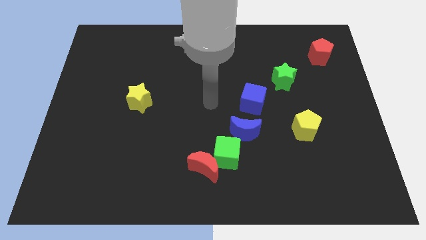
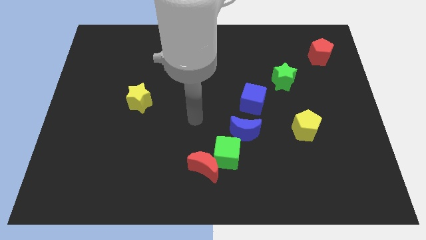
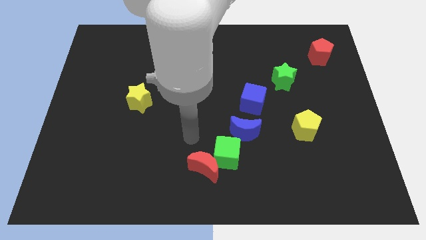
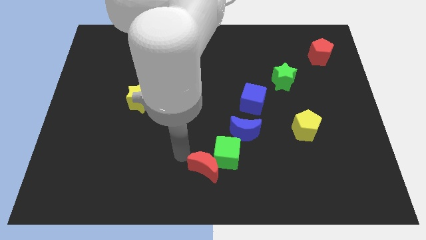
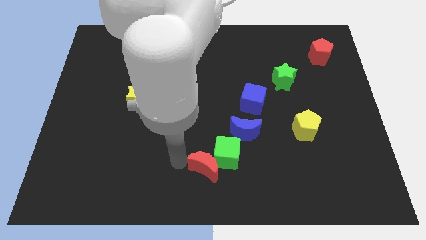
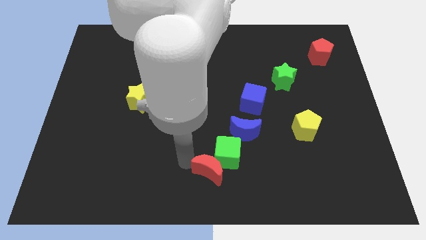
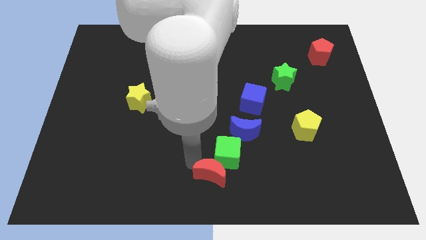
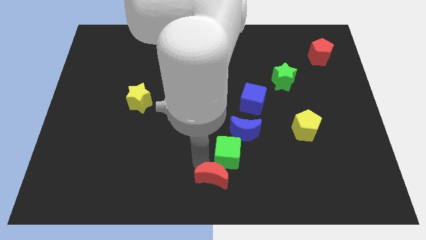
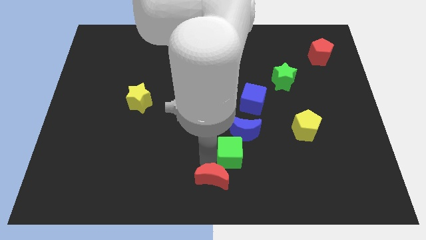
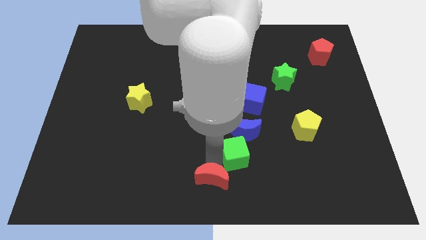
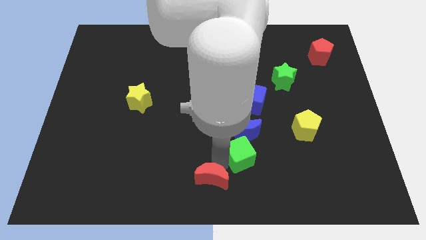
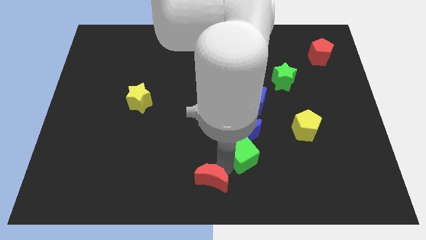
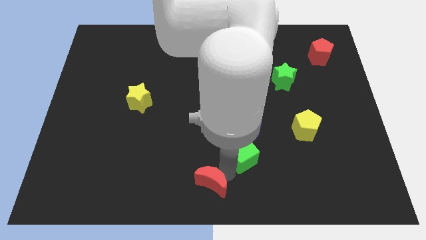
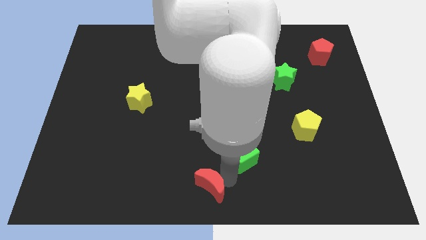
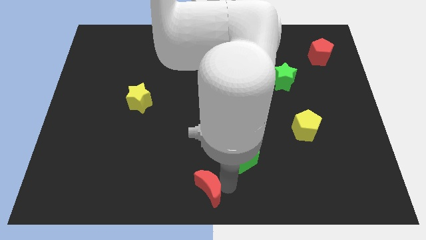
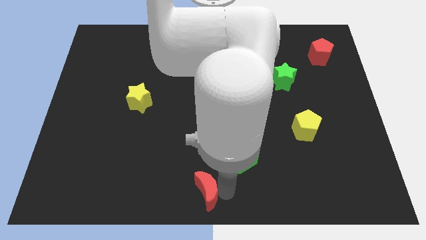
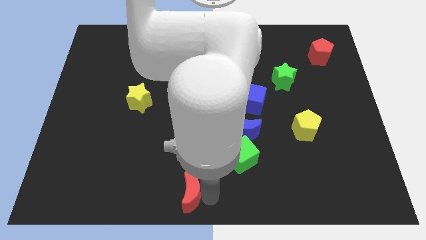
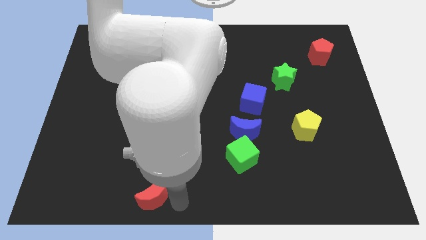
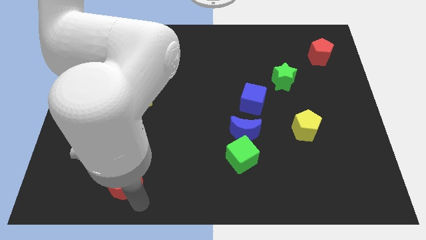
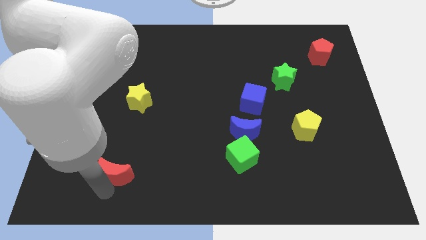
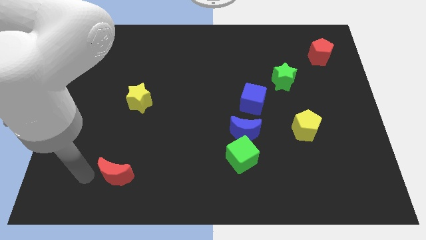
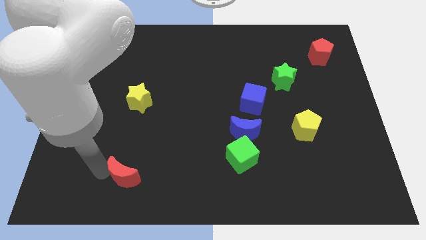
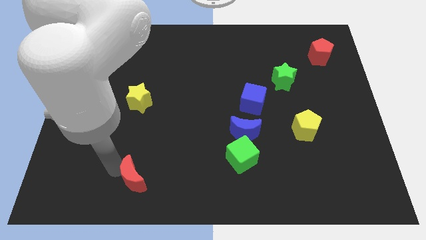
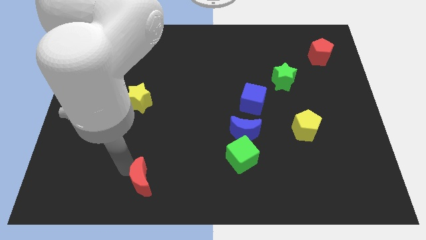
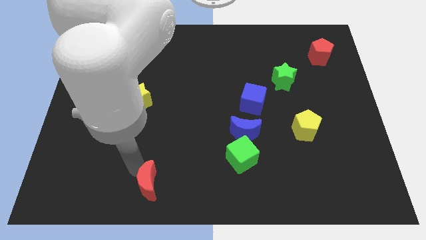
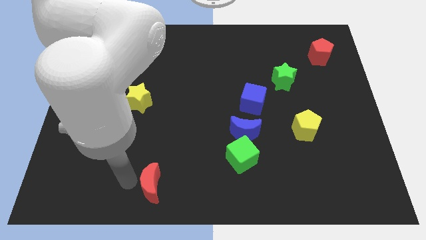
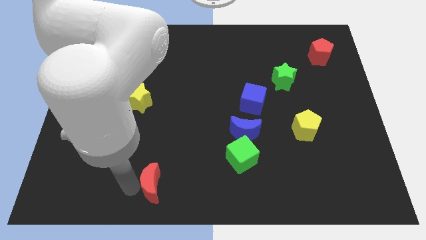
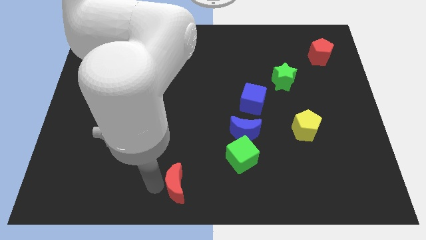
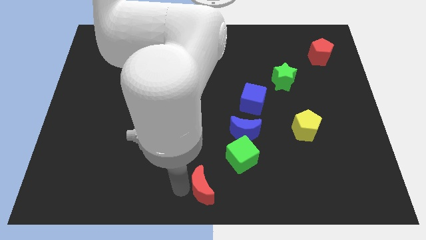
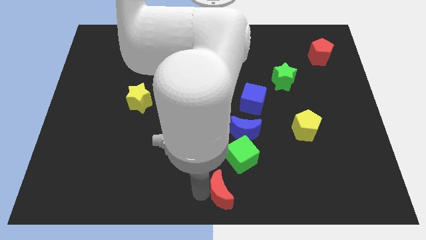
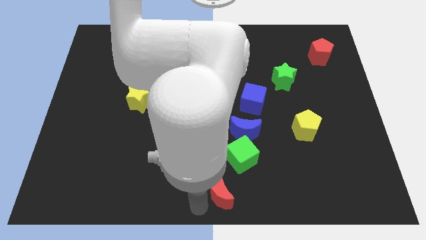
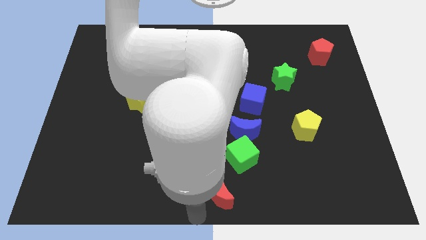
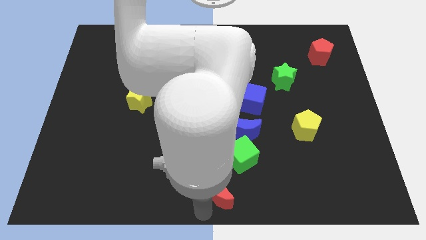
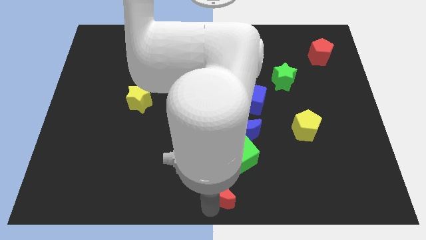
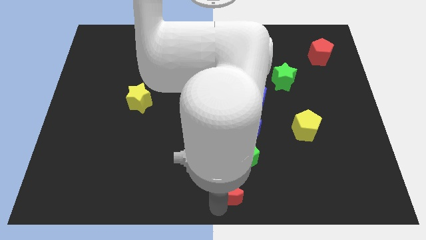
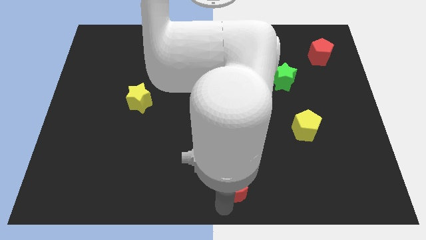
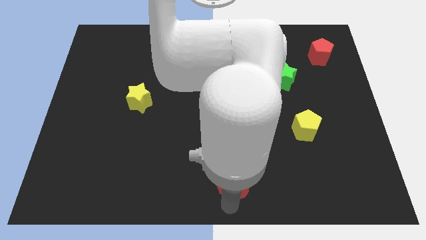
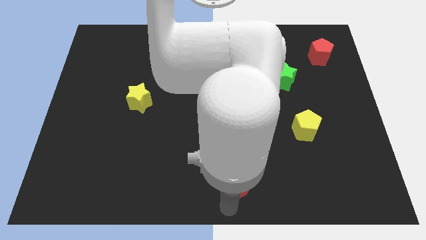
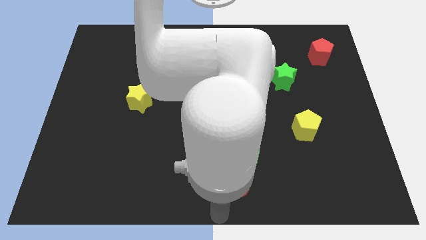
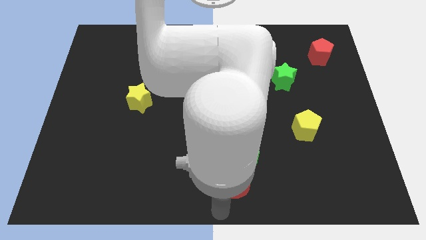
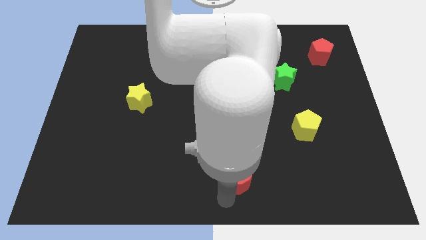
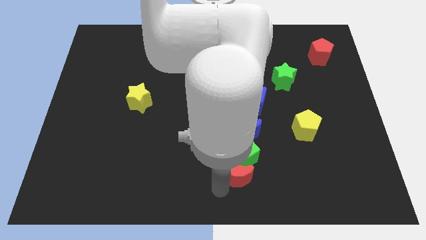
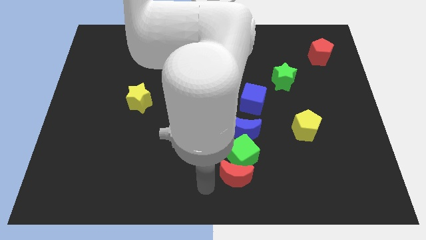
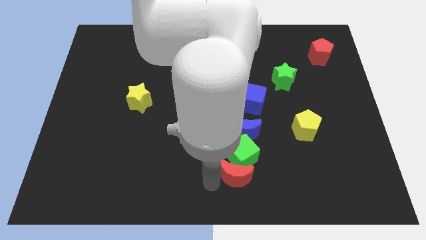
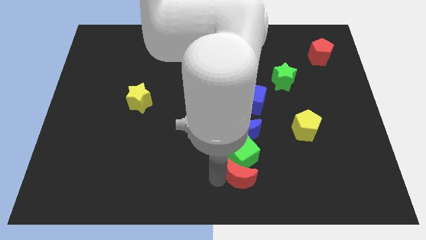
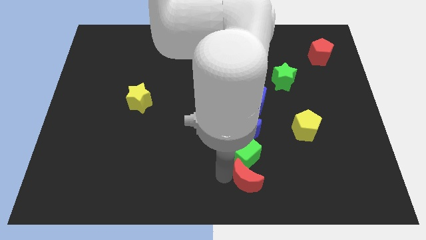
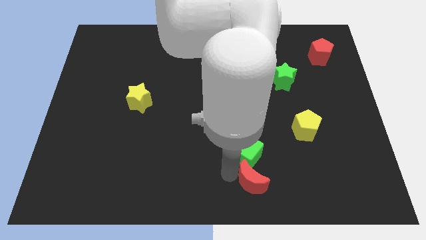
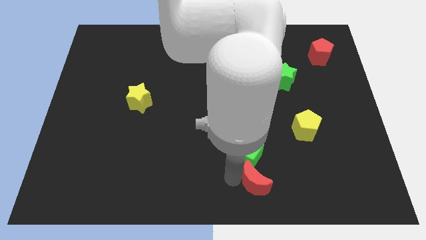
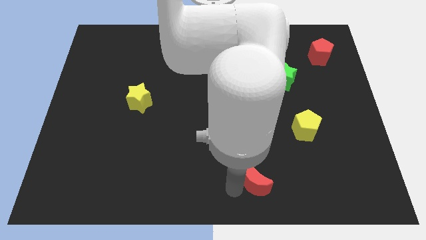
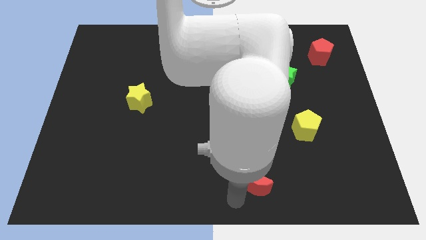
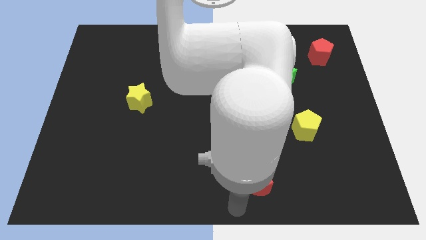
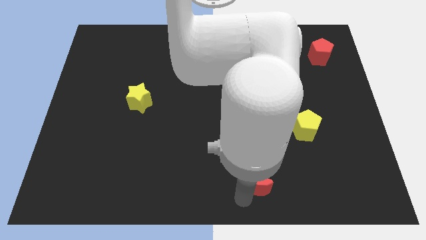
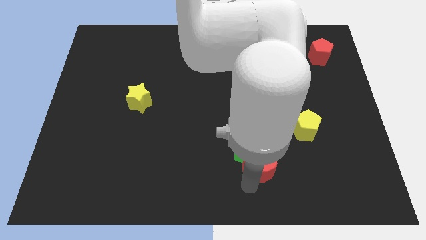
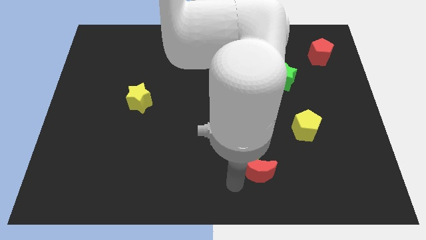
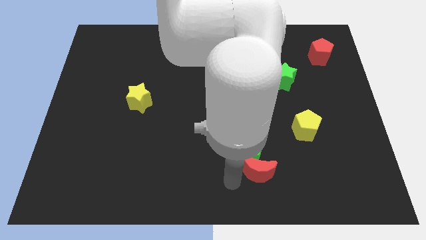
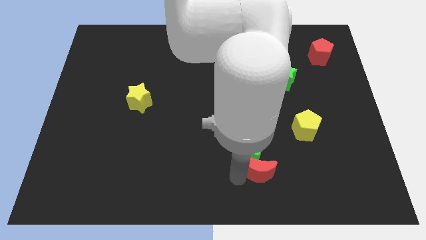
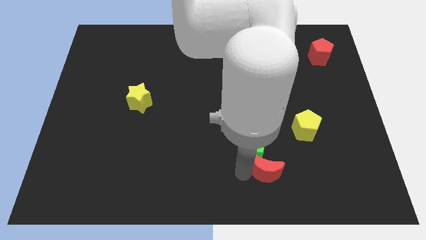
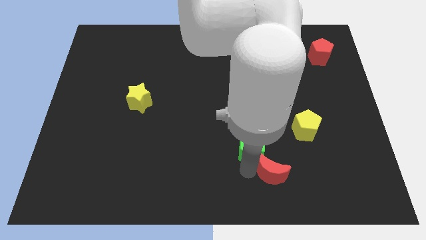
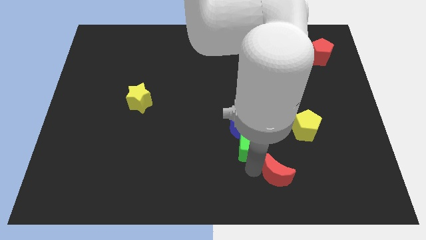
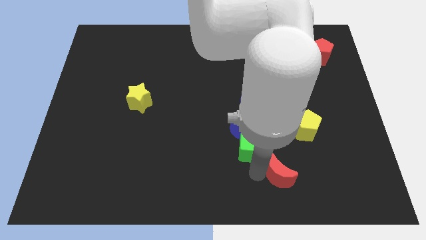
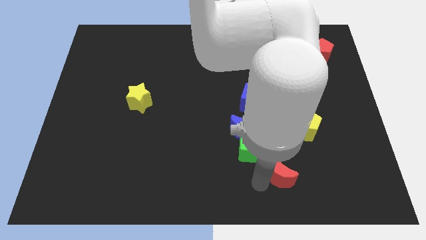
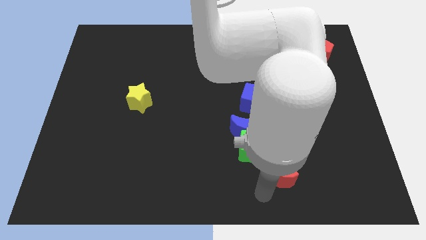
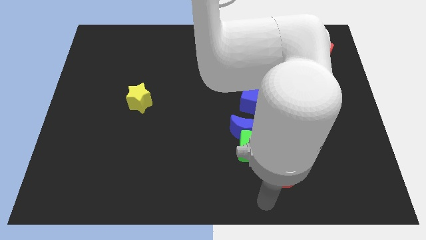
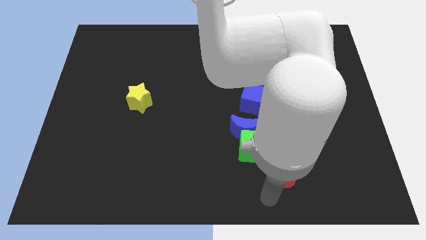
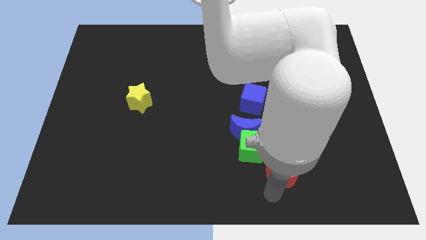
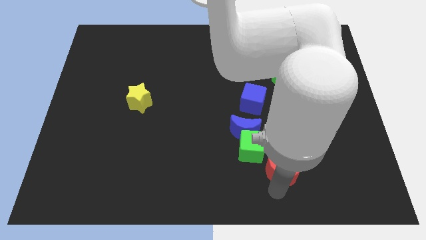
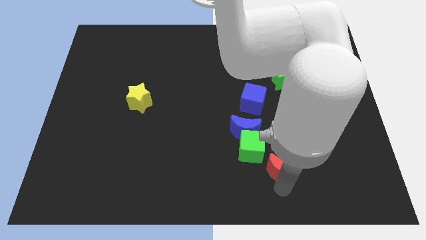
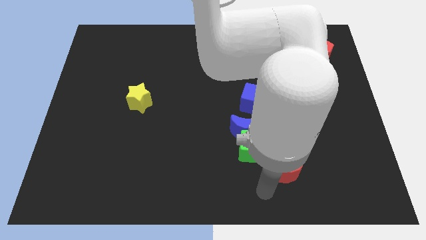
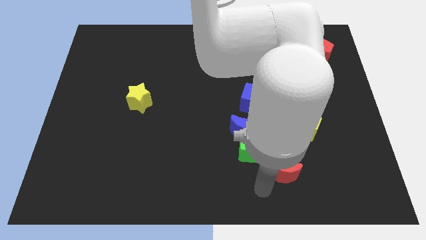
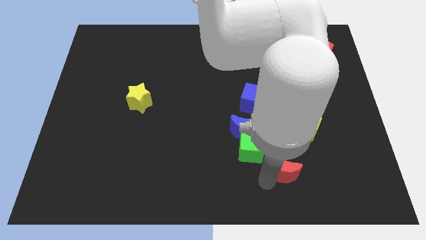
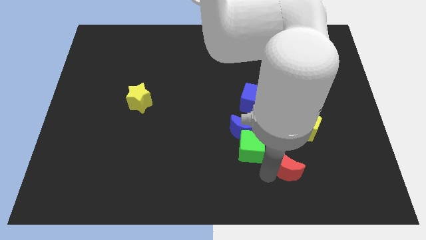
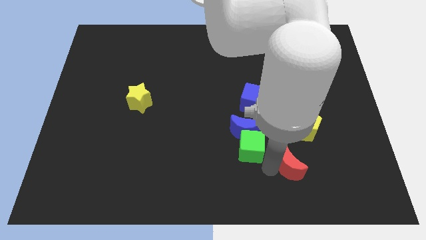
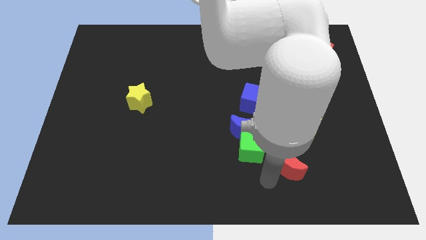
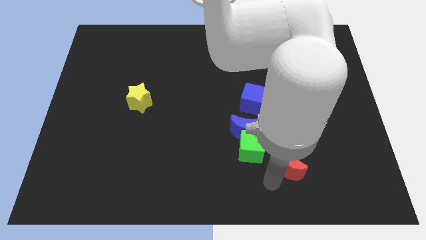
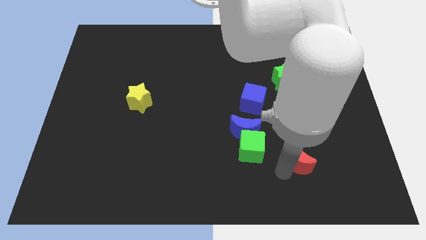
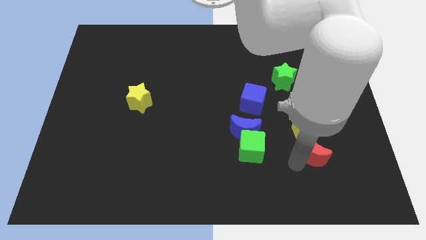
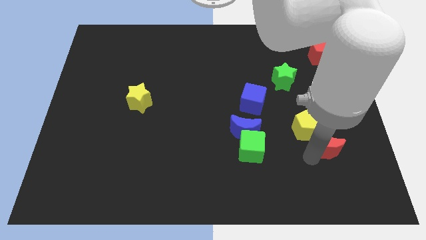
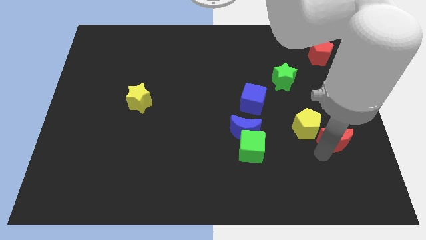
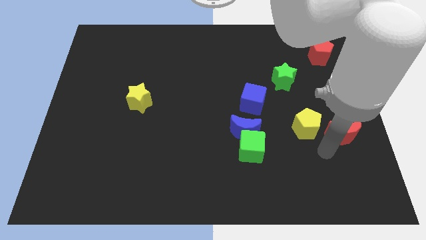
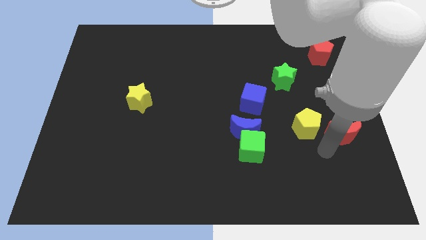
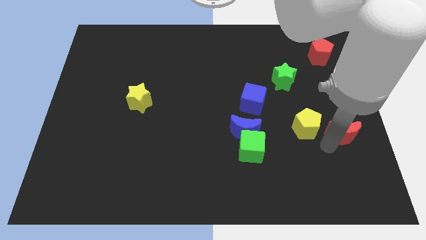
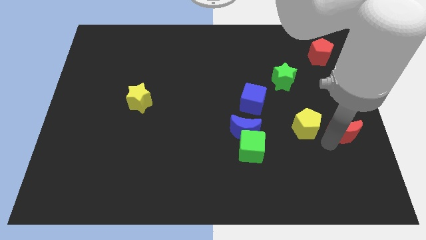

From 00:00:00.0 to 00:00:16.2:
put the red moon to the center right
